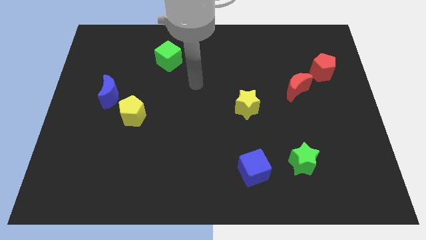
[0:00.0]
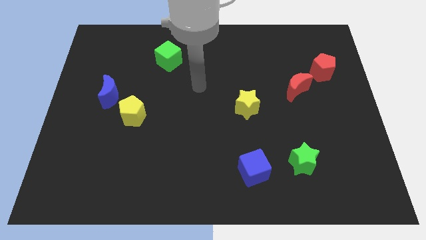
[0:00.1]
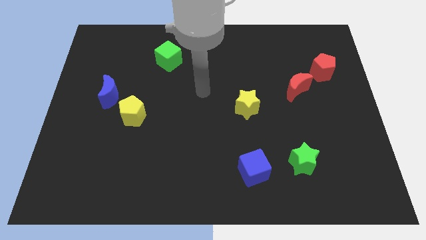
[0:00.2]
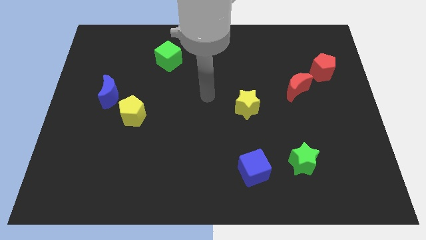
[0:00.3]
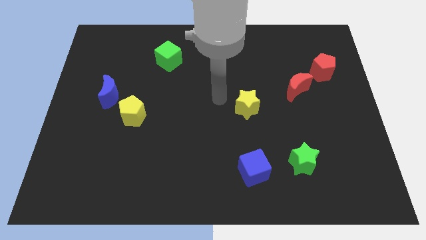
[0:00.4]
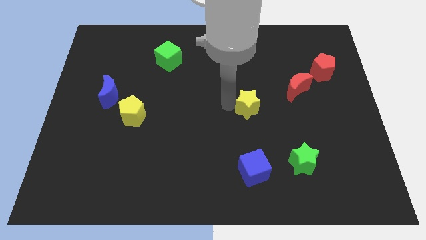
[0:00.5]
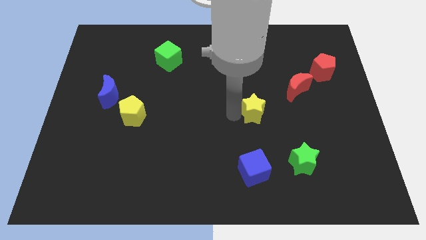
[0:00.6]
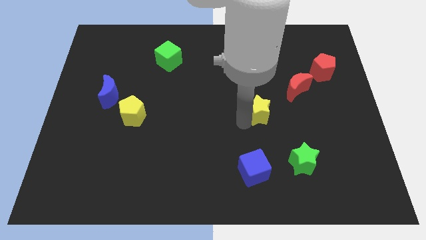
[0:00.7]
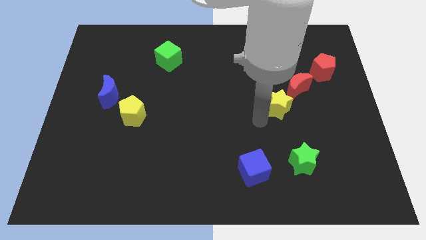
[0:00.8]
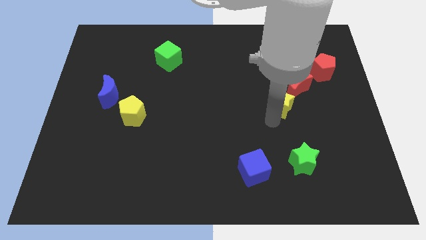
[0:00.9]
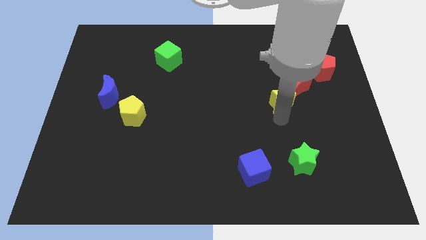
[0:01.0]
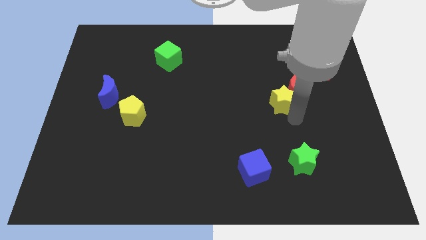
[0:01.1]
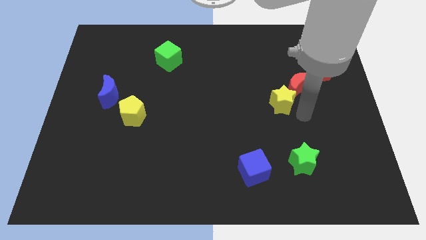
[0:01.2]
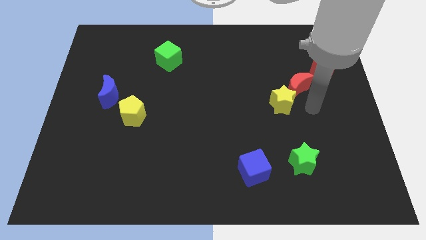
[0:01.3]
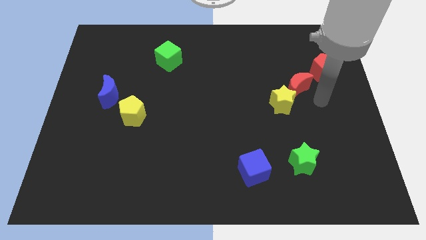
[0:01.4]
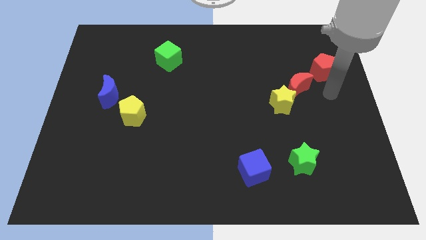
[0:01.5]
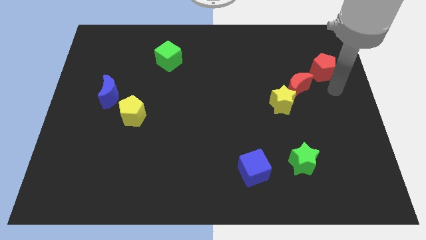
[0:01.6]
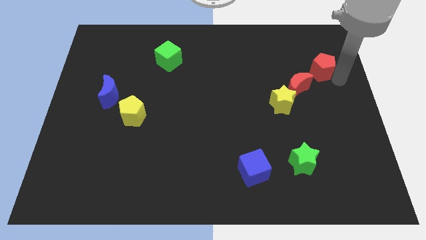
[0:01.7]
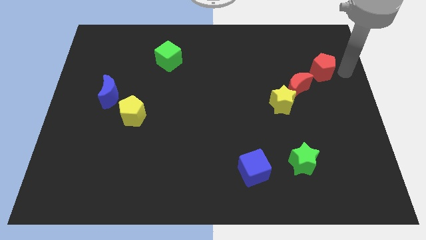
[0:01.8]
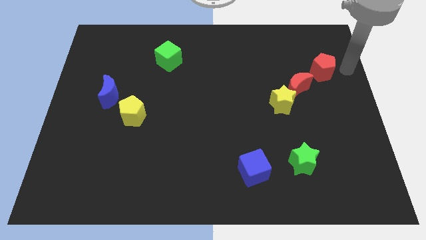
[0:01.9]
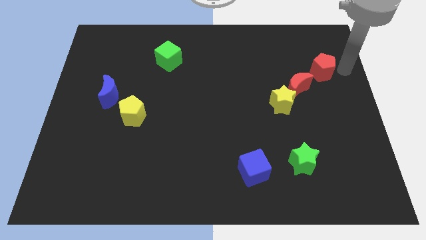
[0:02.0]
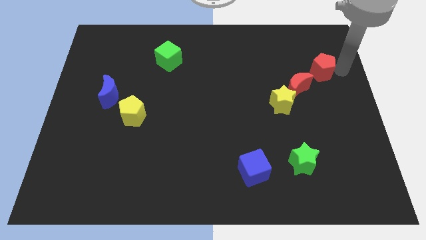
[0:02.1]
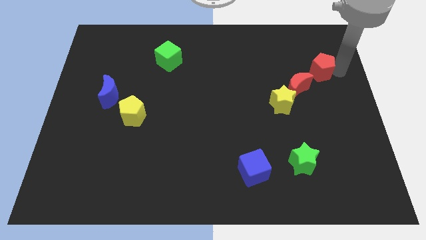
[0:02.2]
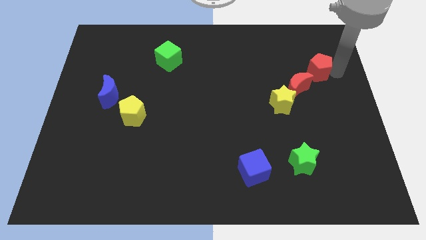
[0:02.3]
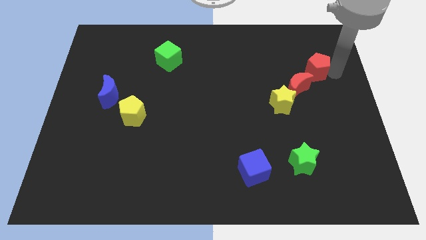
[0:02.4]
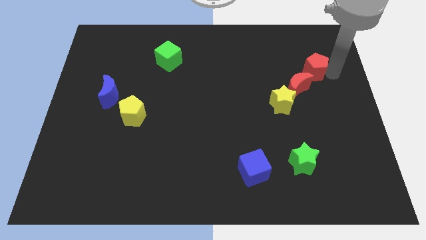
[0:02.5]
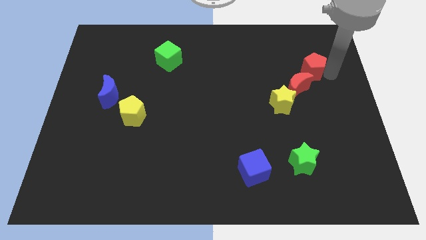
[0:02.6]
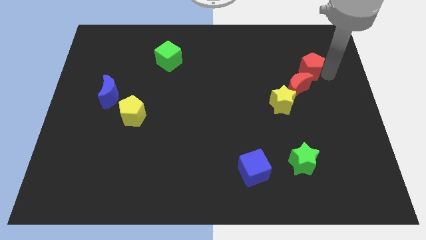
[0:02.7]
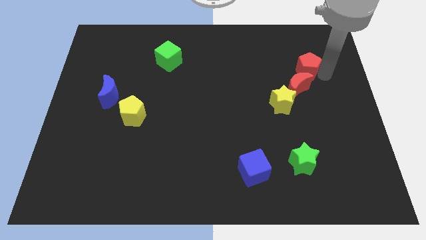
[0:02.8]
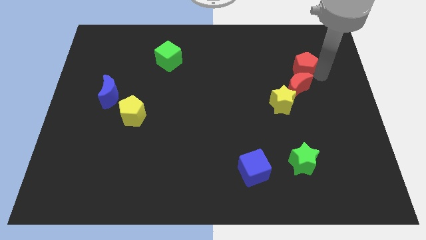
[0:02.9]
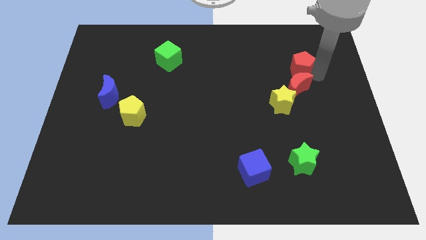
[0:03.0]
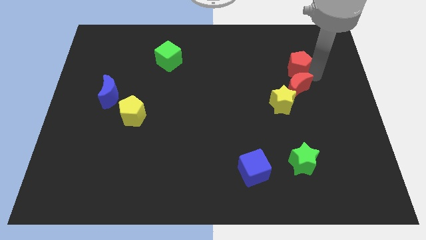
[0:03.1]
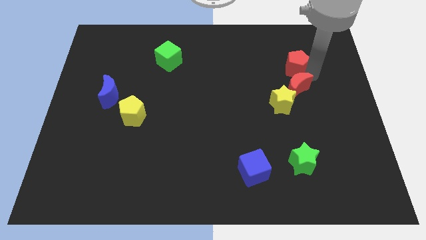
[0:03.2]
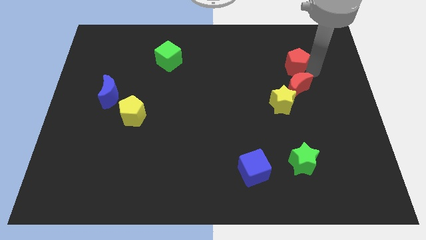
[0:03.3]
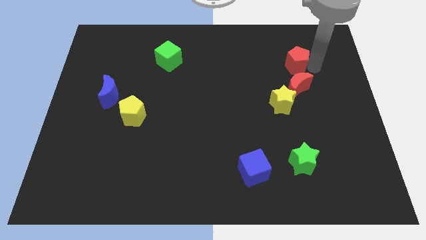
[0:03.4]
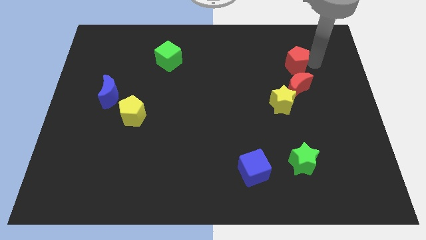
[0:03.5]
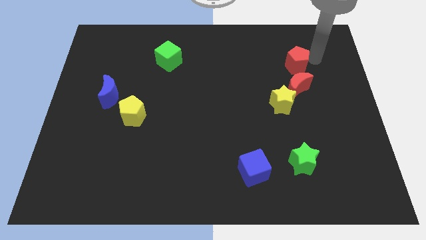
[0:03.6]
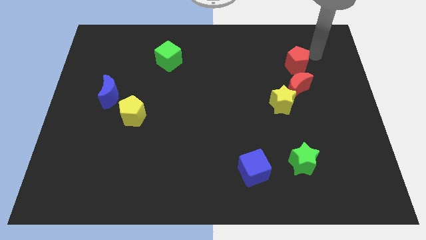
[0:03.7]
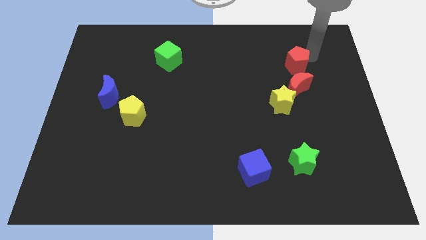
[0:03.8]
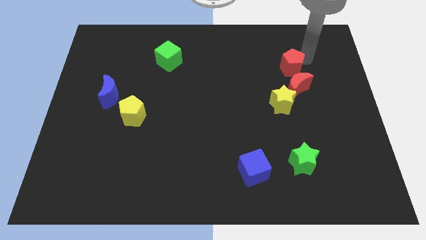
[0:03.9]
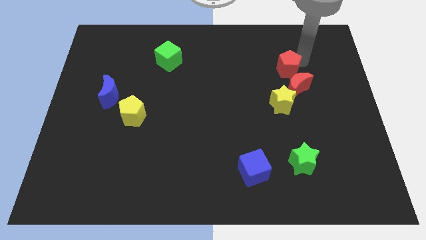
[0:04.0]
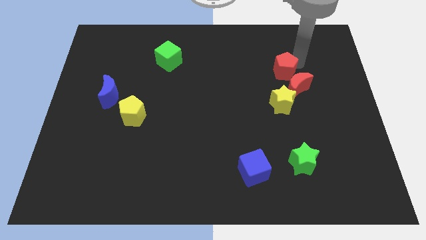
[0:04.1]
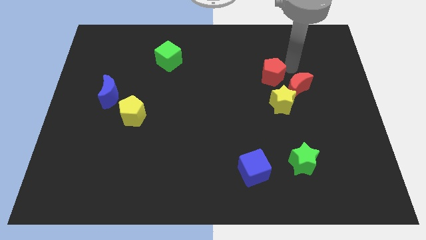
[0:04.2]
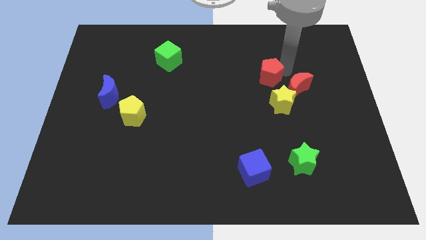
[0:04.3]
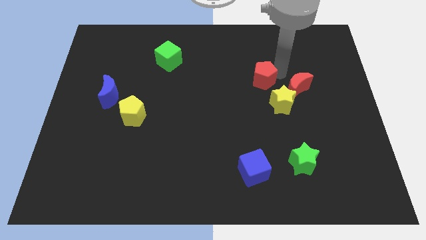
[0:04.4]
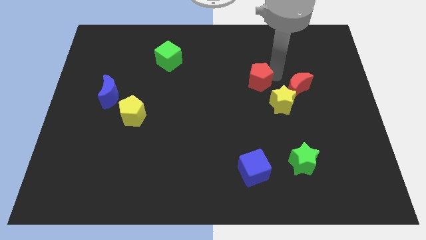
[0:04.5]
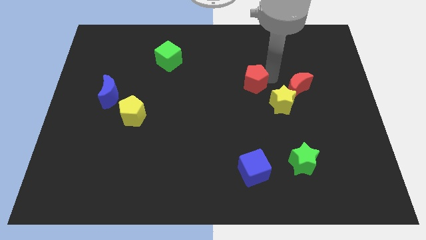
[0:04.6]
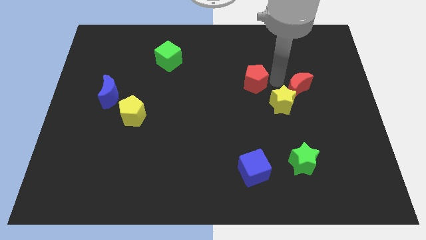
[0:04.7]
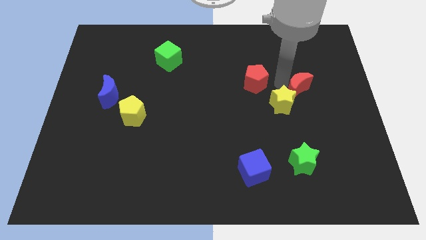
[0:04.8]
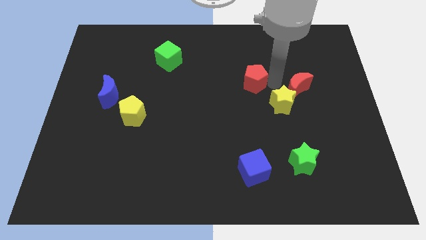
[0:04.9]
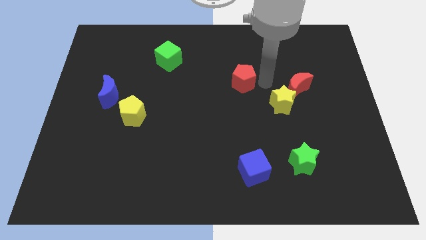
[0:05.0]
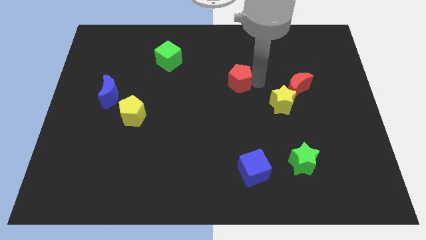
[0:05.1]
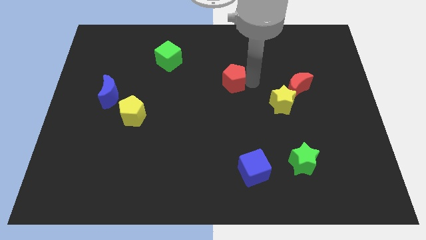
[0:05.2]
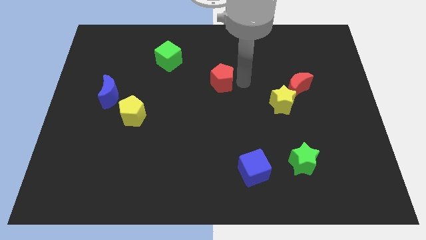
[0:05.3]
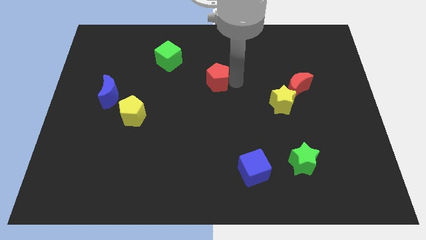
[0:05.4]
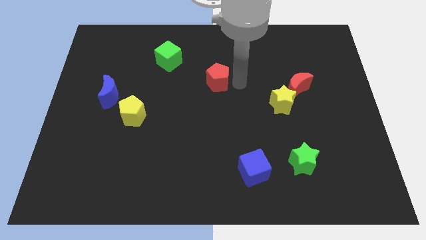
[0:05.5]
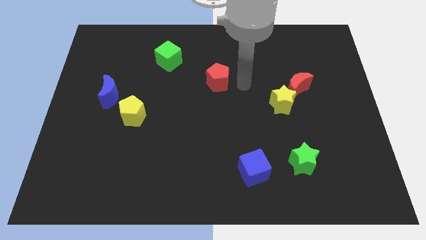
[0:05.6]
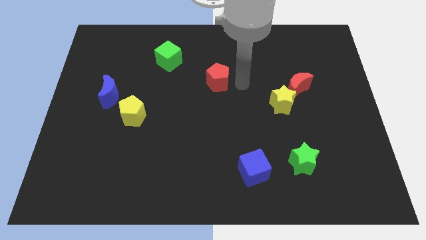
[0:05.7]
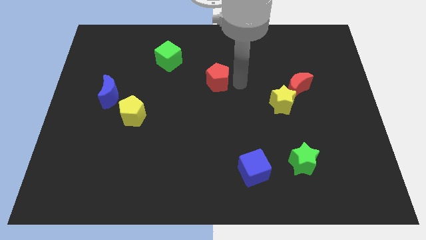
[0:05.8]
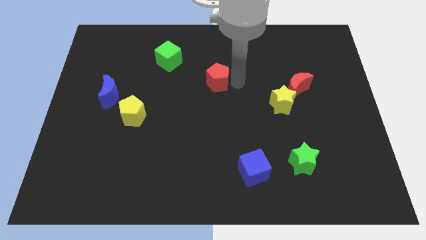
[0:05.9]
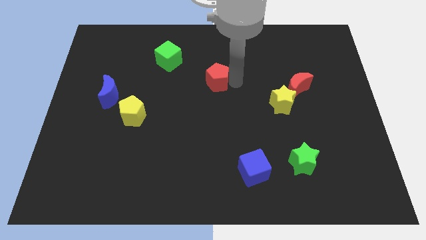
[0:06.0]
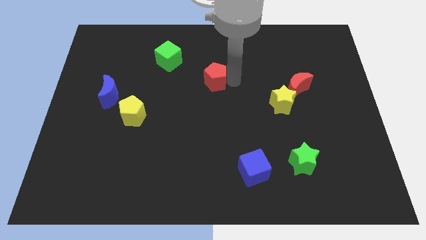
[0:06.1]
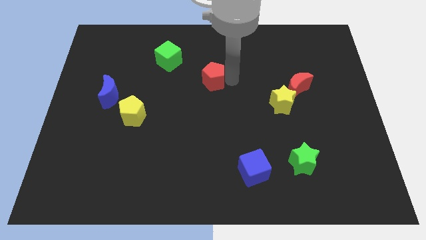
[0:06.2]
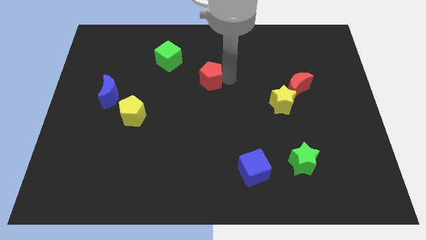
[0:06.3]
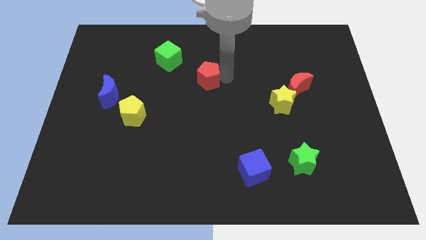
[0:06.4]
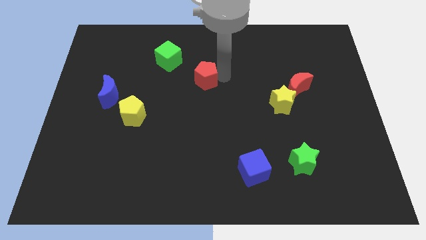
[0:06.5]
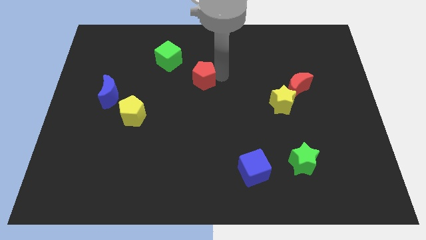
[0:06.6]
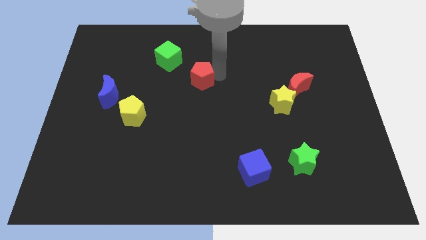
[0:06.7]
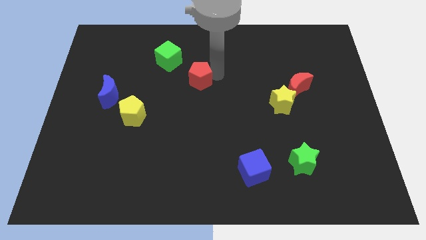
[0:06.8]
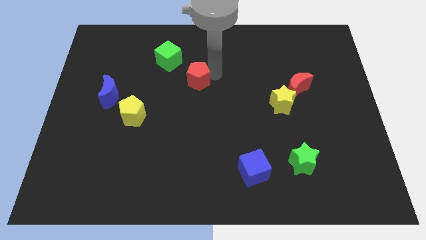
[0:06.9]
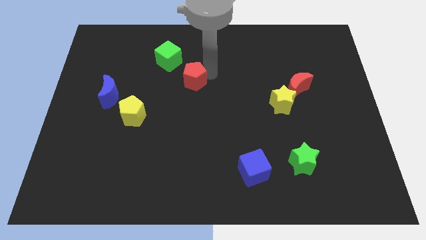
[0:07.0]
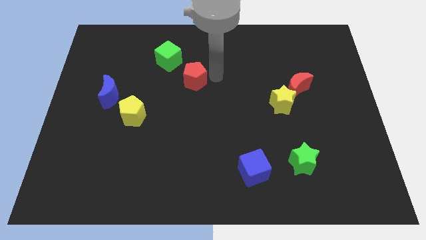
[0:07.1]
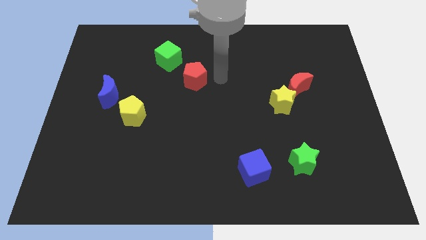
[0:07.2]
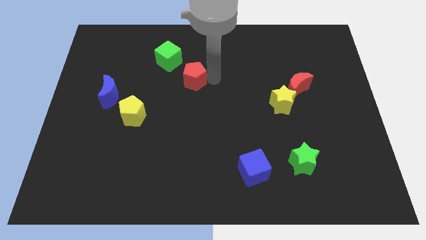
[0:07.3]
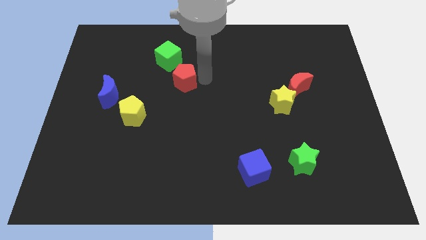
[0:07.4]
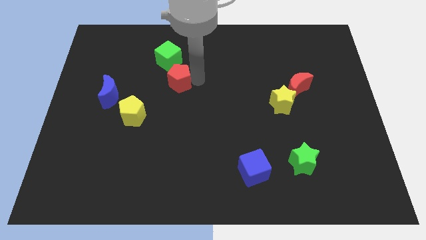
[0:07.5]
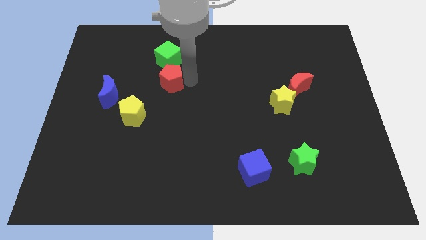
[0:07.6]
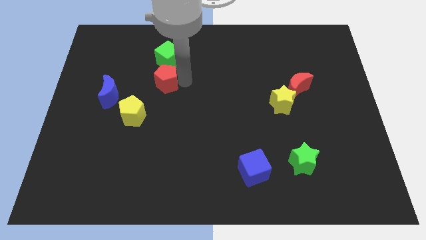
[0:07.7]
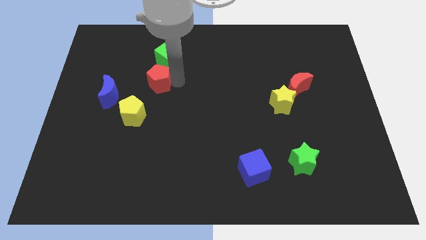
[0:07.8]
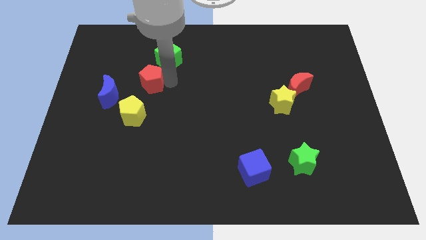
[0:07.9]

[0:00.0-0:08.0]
push the red pentagon to the top side of the yellow pentagon

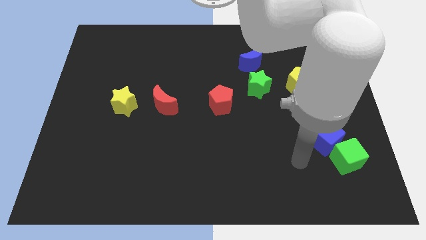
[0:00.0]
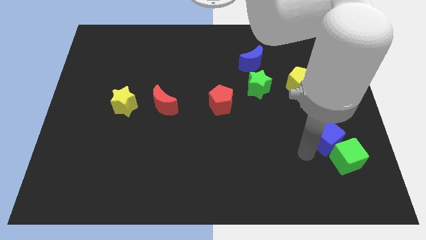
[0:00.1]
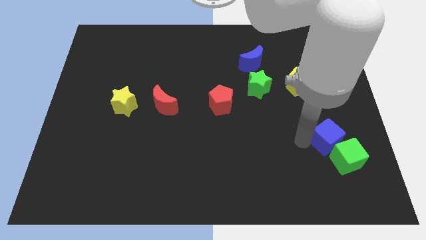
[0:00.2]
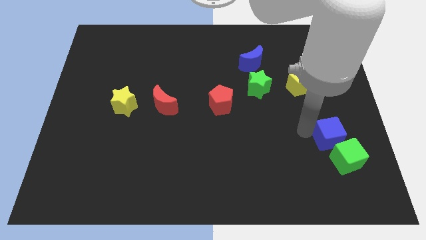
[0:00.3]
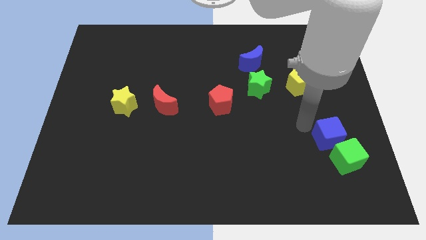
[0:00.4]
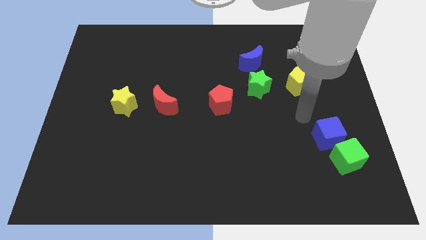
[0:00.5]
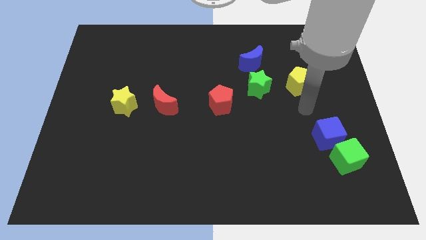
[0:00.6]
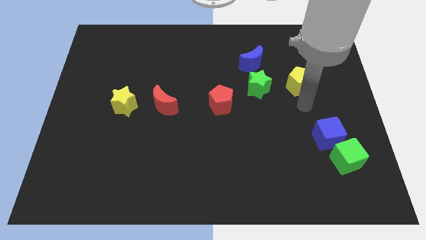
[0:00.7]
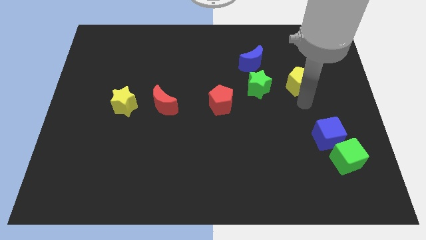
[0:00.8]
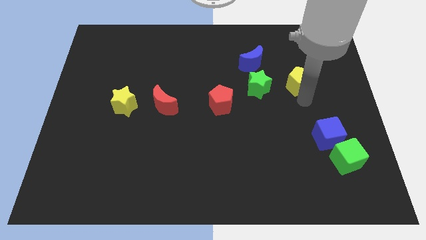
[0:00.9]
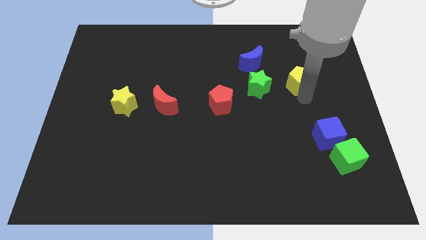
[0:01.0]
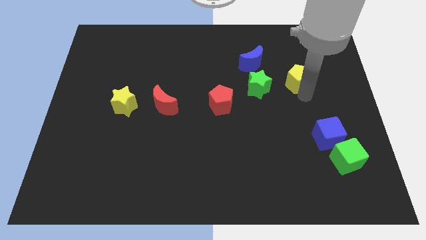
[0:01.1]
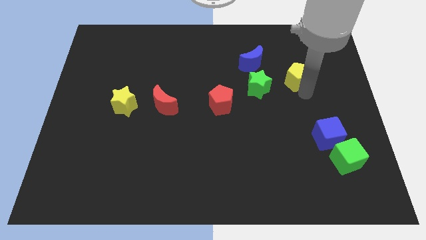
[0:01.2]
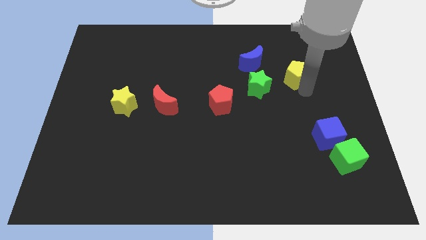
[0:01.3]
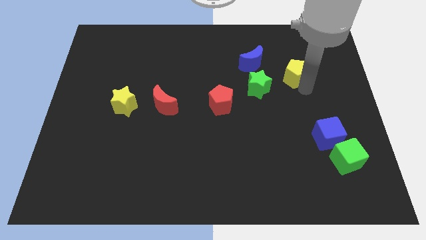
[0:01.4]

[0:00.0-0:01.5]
push the yellow pentagon right of the blue moon
